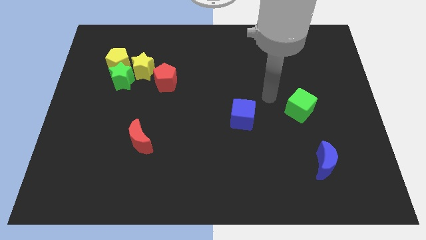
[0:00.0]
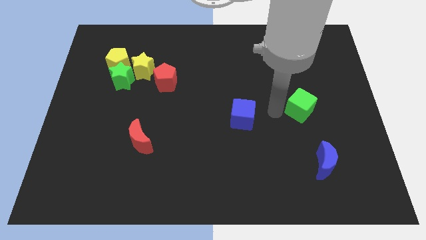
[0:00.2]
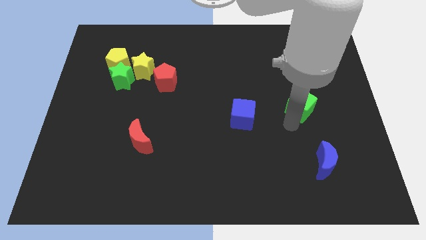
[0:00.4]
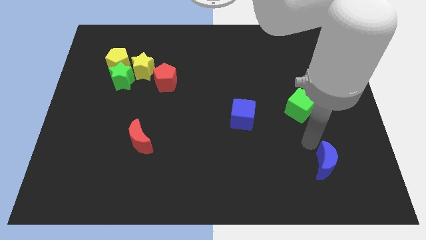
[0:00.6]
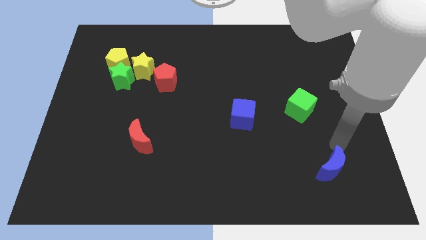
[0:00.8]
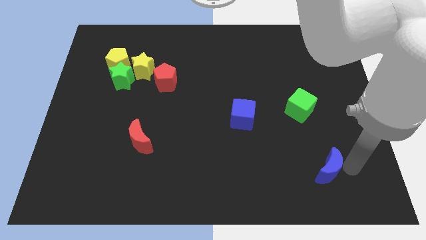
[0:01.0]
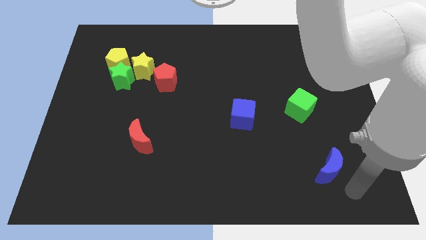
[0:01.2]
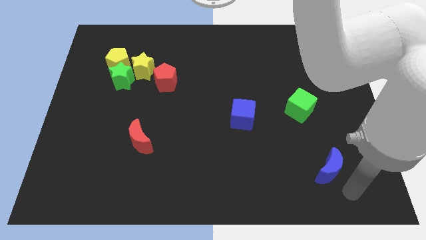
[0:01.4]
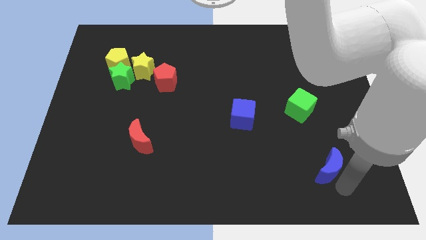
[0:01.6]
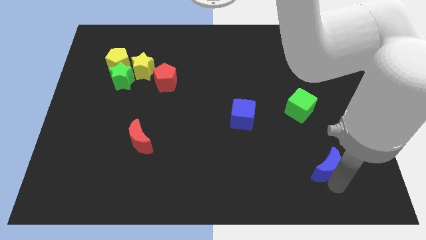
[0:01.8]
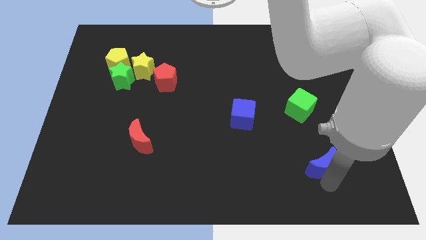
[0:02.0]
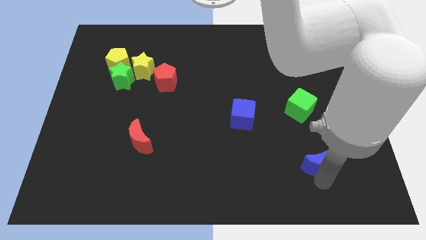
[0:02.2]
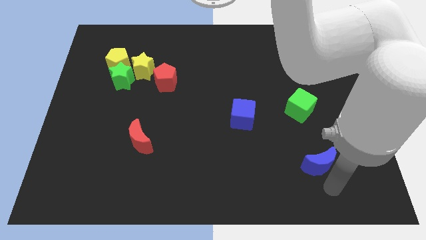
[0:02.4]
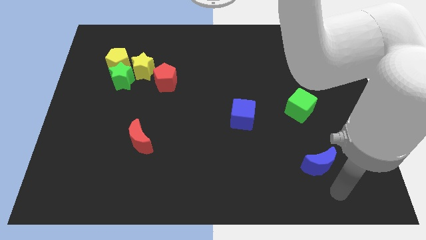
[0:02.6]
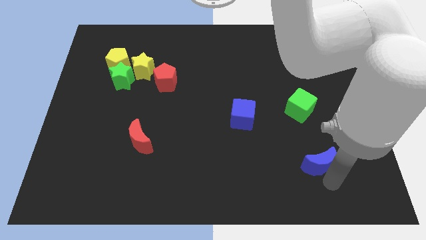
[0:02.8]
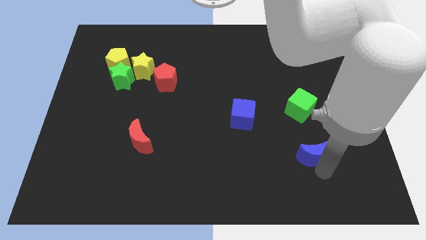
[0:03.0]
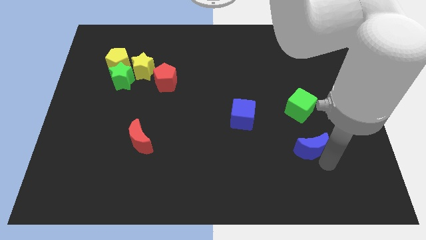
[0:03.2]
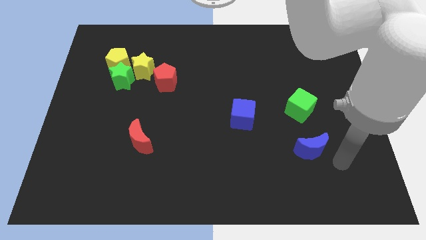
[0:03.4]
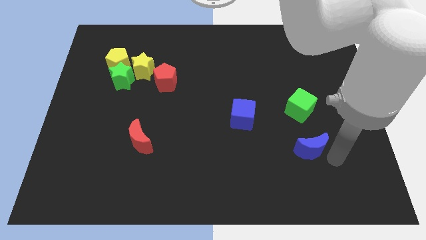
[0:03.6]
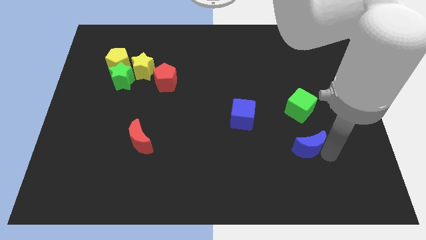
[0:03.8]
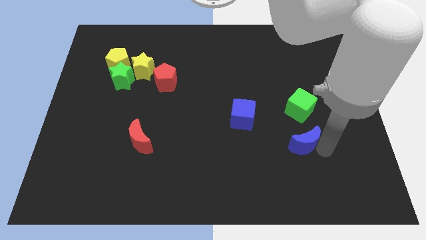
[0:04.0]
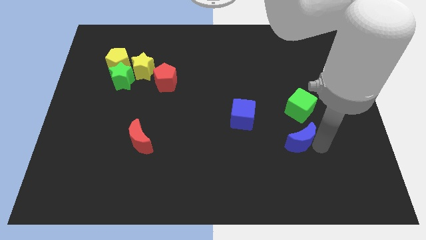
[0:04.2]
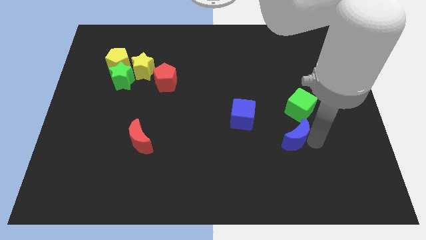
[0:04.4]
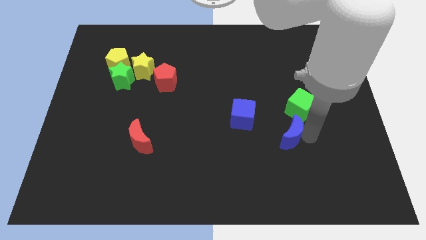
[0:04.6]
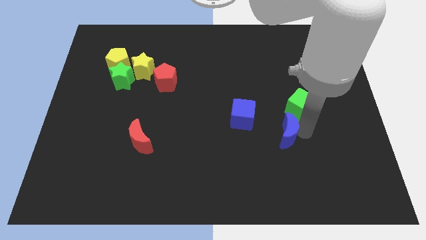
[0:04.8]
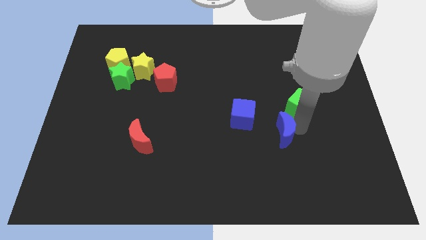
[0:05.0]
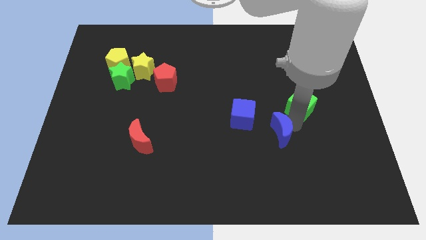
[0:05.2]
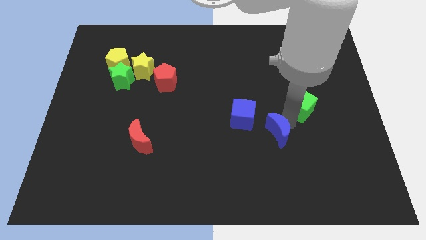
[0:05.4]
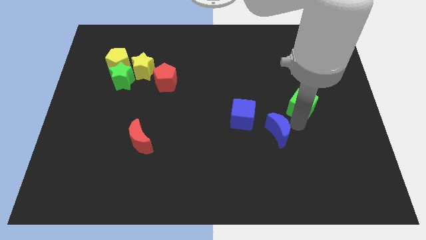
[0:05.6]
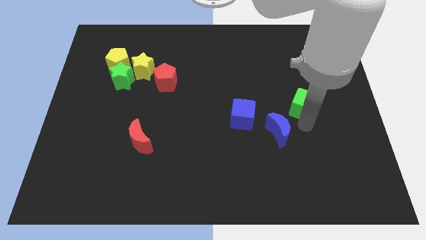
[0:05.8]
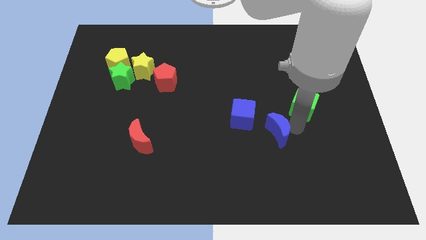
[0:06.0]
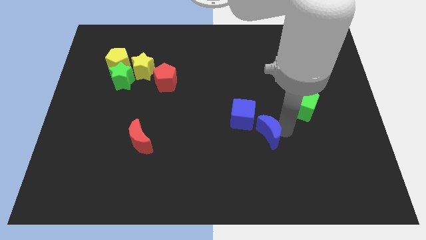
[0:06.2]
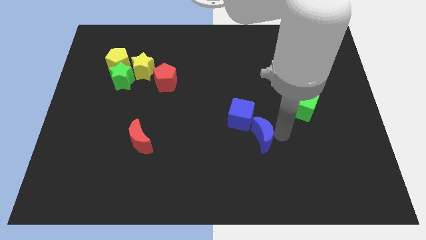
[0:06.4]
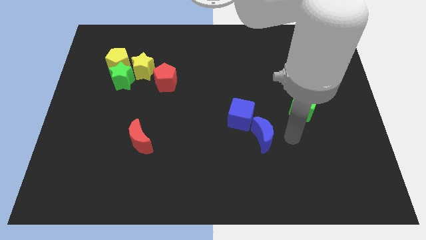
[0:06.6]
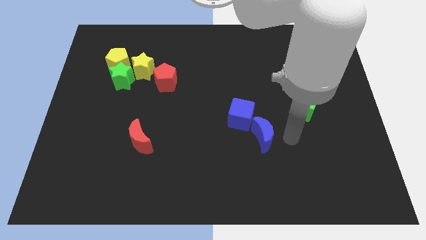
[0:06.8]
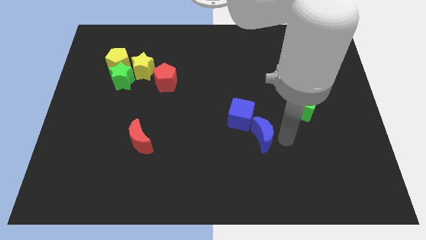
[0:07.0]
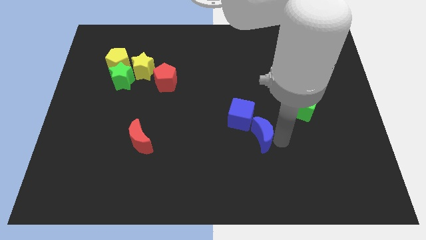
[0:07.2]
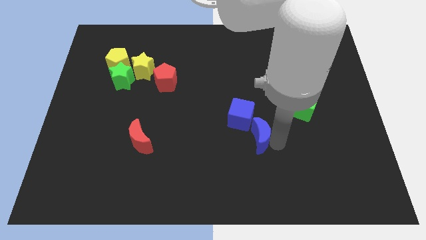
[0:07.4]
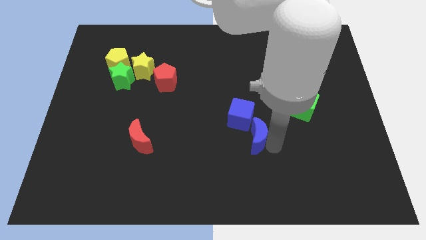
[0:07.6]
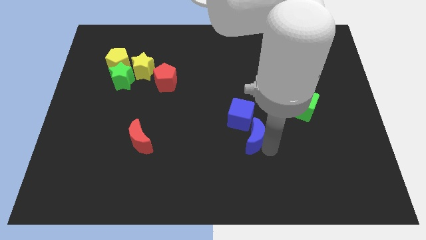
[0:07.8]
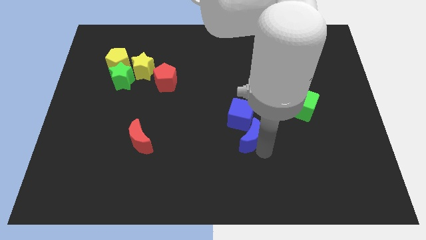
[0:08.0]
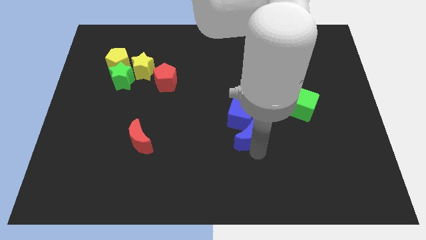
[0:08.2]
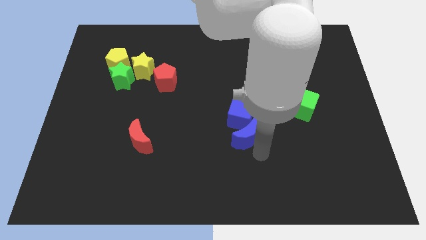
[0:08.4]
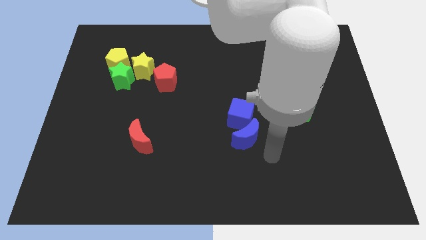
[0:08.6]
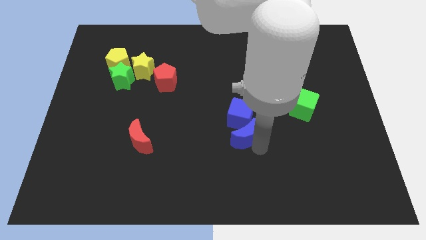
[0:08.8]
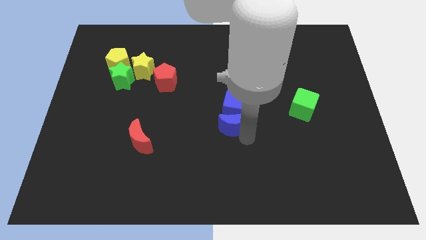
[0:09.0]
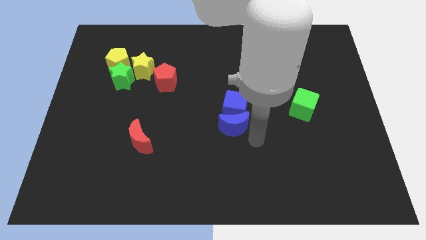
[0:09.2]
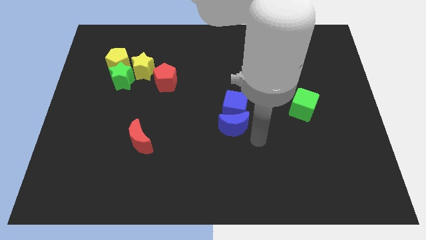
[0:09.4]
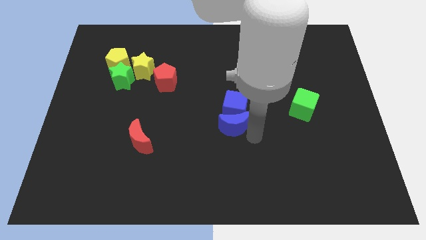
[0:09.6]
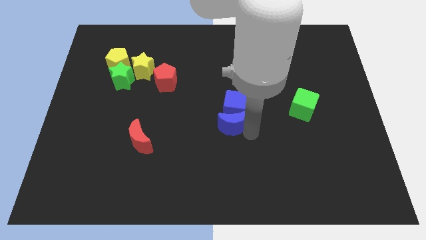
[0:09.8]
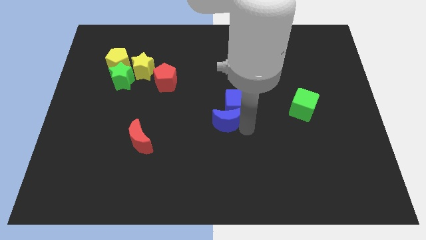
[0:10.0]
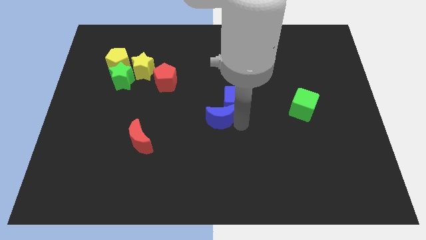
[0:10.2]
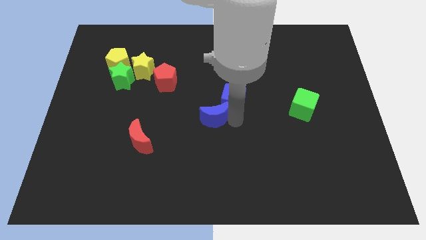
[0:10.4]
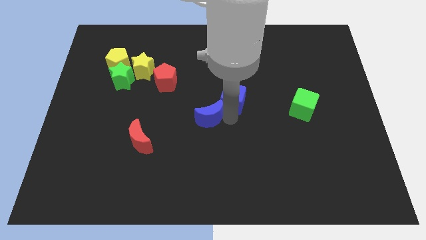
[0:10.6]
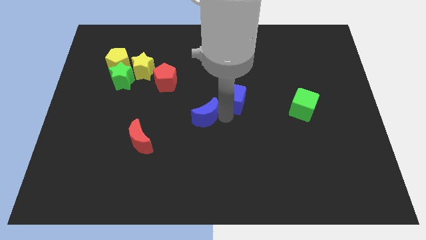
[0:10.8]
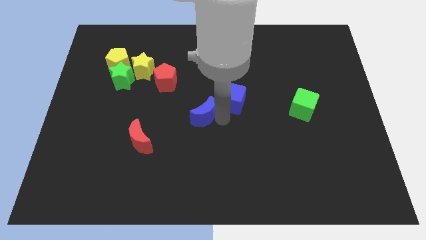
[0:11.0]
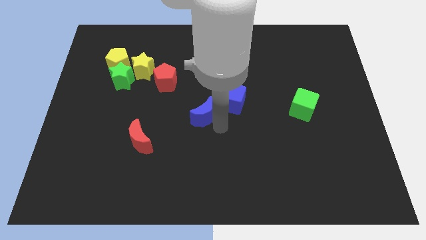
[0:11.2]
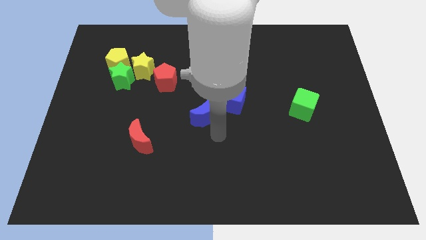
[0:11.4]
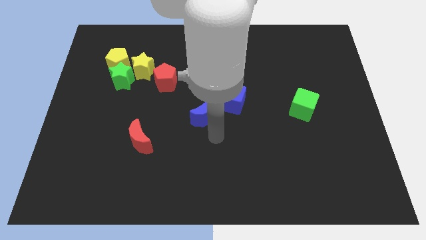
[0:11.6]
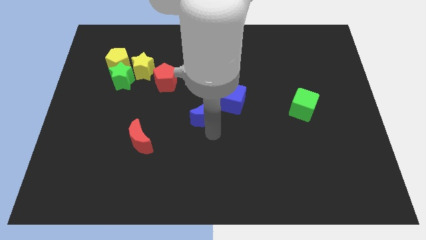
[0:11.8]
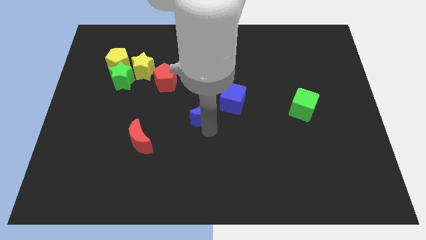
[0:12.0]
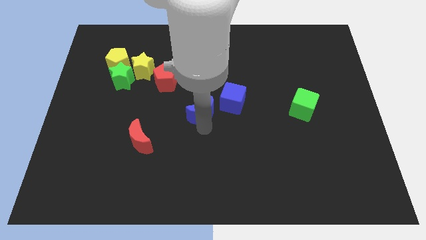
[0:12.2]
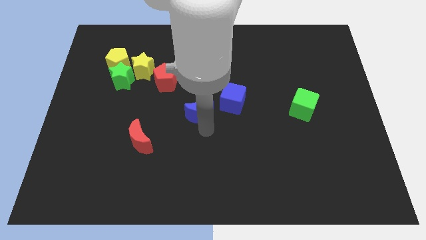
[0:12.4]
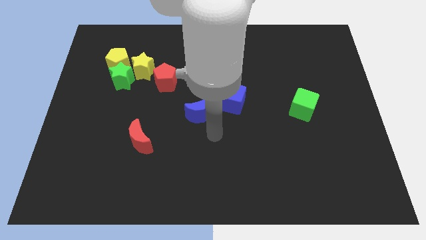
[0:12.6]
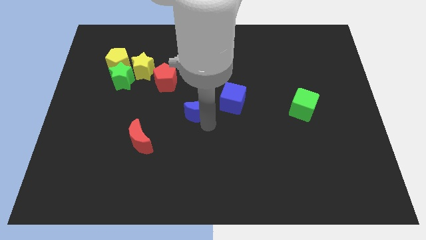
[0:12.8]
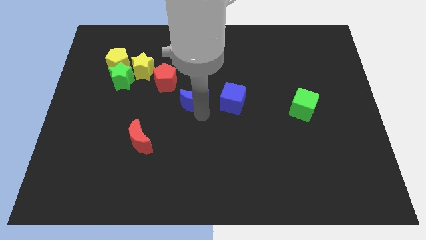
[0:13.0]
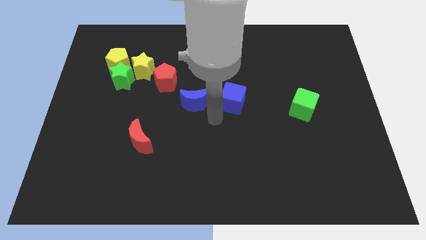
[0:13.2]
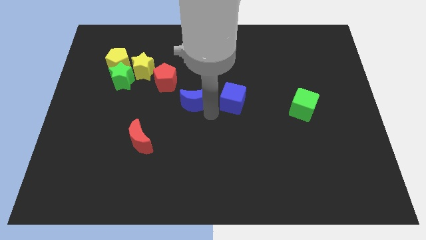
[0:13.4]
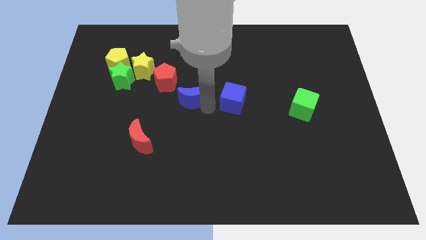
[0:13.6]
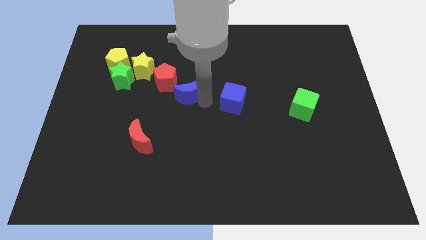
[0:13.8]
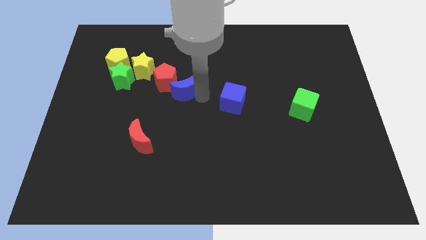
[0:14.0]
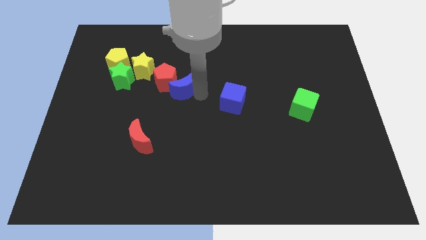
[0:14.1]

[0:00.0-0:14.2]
slide the blue moon next to the red pentagon

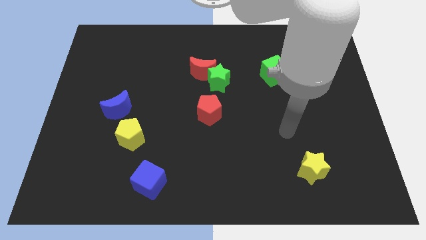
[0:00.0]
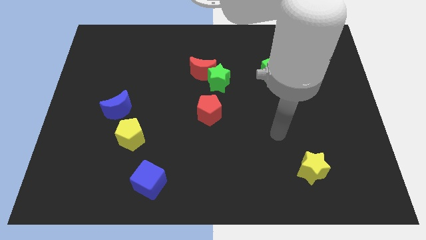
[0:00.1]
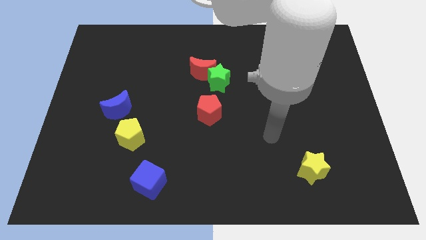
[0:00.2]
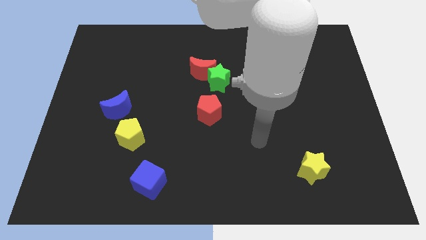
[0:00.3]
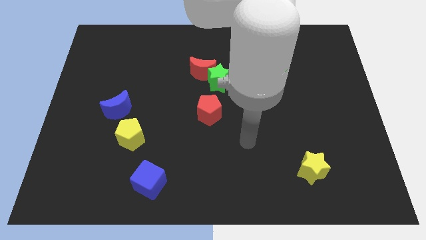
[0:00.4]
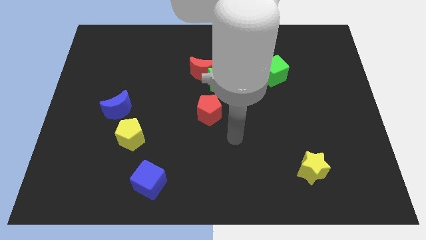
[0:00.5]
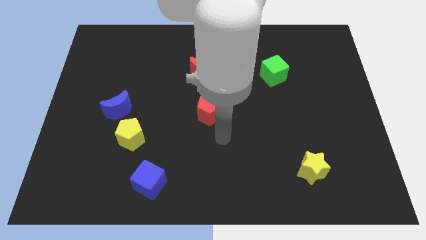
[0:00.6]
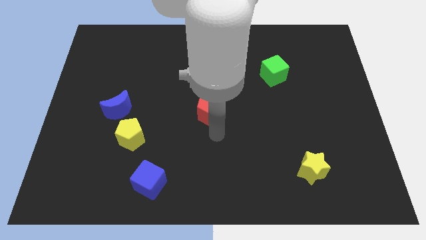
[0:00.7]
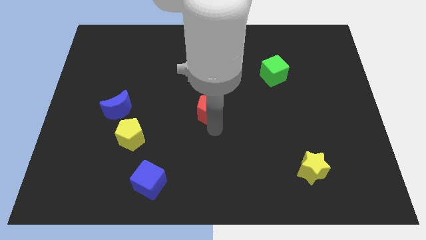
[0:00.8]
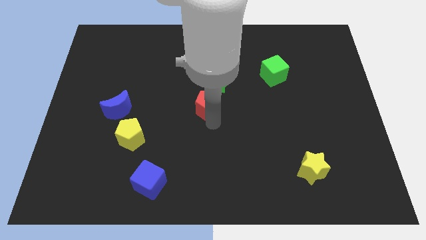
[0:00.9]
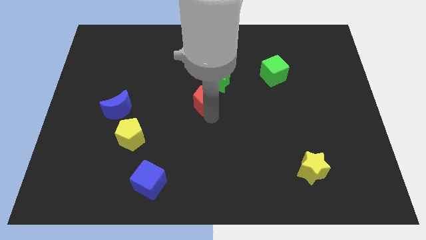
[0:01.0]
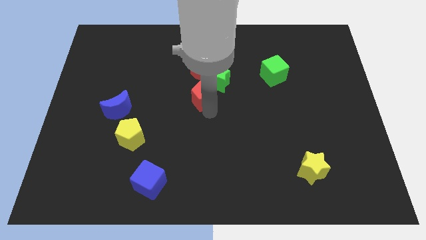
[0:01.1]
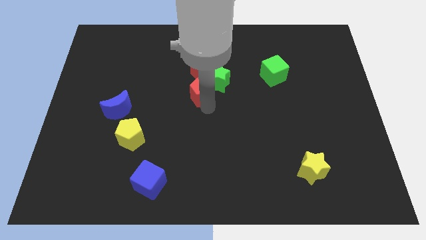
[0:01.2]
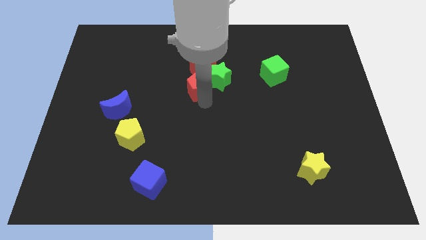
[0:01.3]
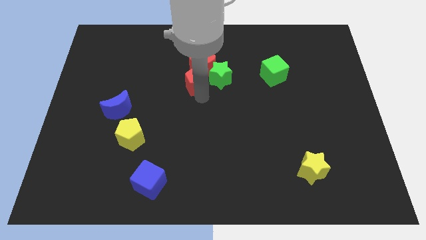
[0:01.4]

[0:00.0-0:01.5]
slide the red pentagon next to the red moon

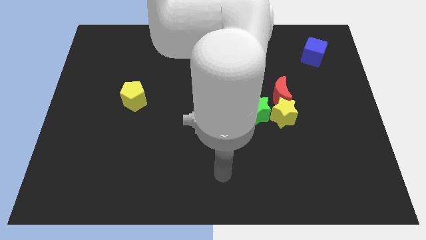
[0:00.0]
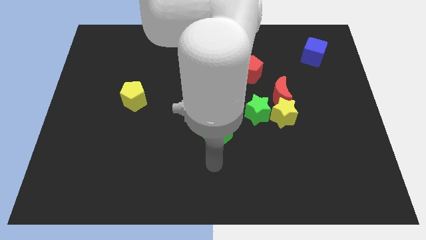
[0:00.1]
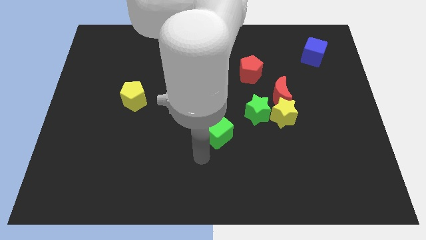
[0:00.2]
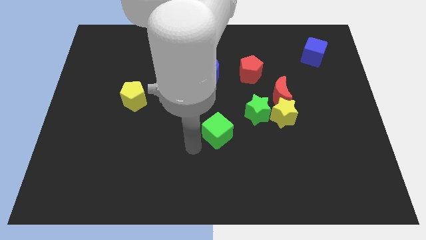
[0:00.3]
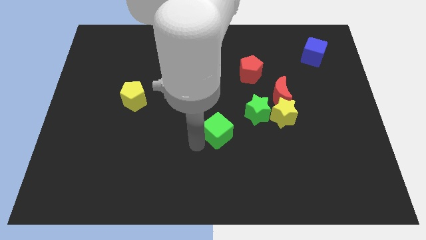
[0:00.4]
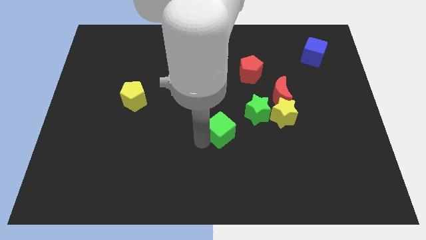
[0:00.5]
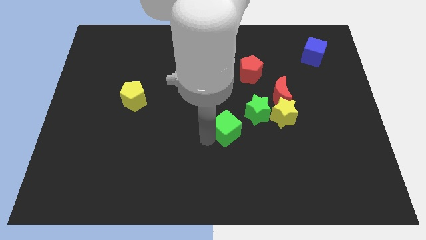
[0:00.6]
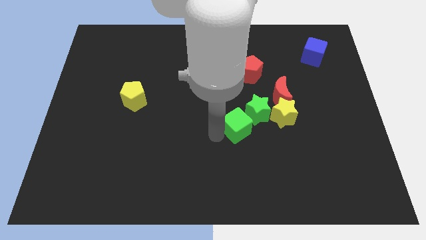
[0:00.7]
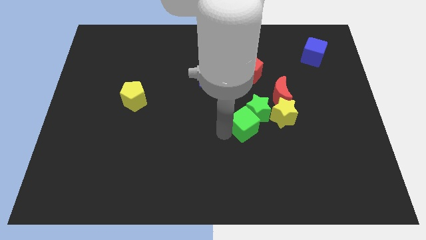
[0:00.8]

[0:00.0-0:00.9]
move the green cube next to the green star
